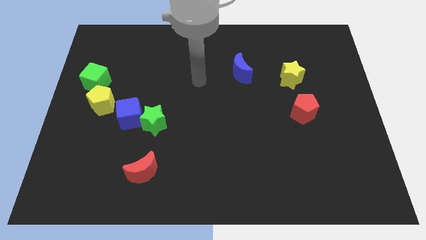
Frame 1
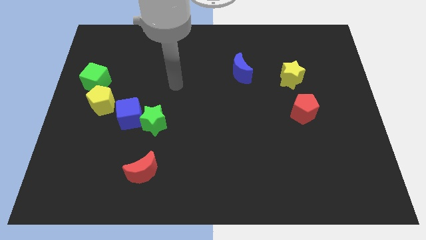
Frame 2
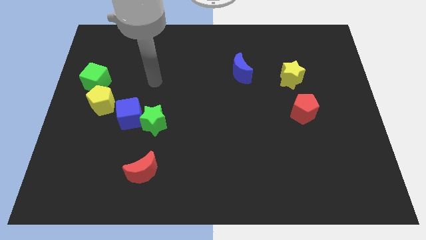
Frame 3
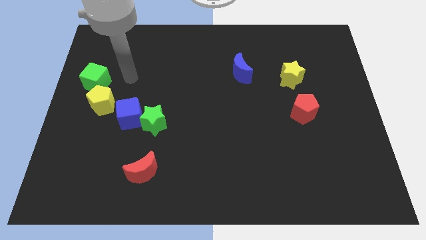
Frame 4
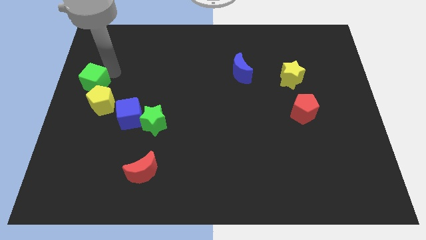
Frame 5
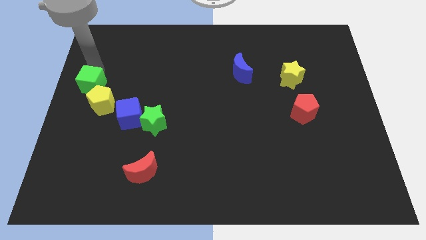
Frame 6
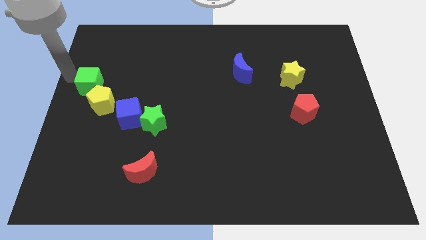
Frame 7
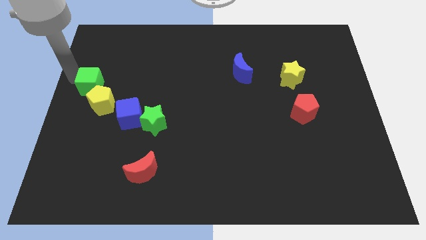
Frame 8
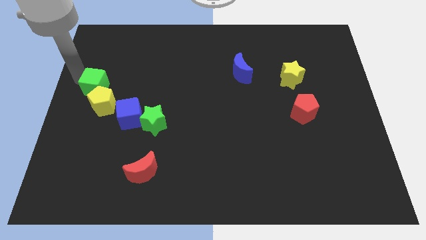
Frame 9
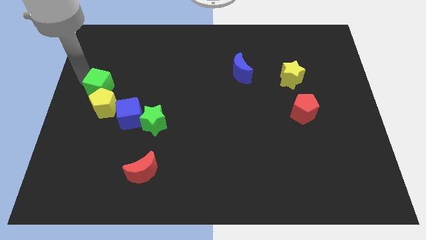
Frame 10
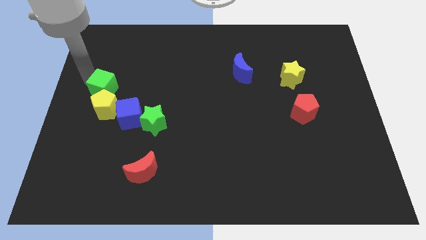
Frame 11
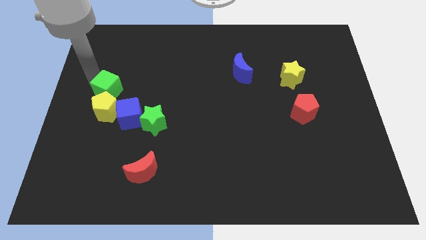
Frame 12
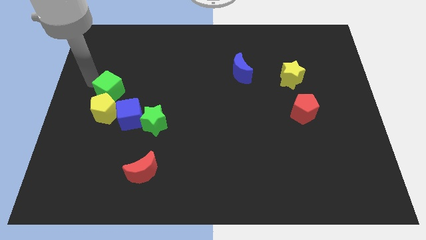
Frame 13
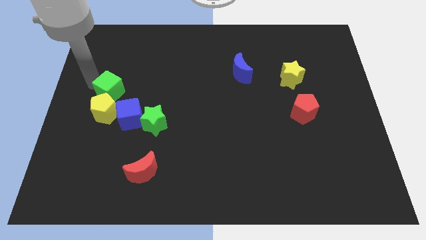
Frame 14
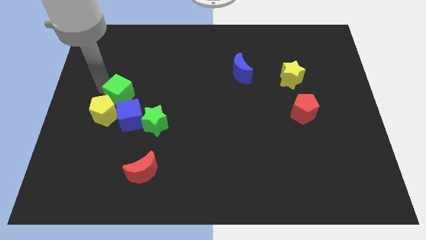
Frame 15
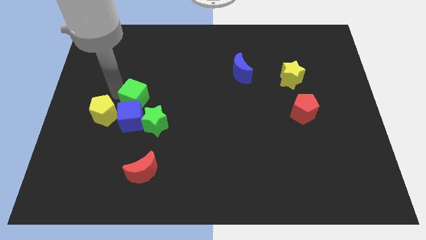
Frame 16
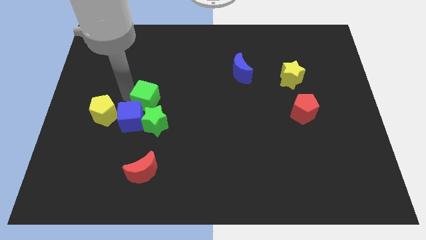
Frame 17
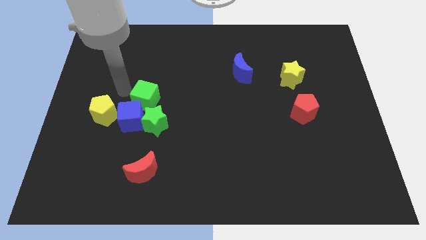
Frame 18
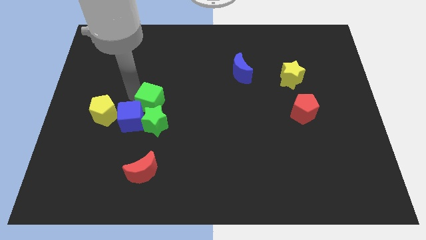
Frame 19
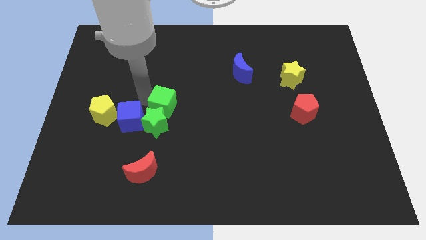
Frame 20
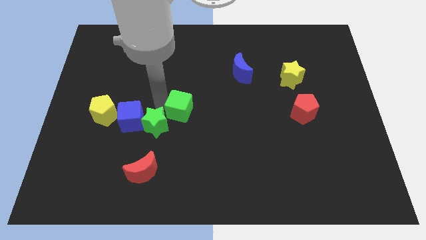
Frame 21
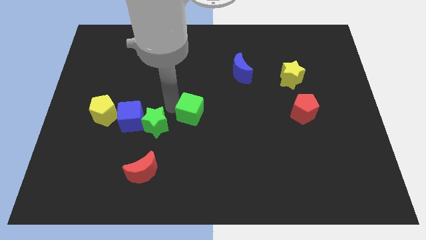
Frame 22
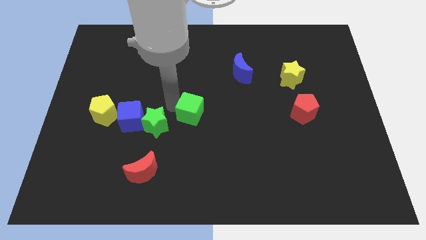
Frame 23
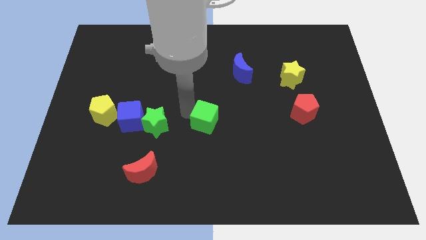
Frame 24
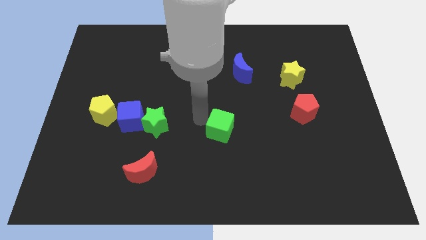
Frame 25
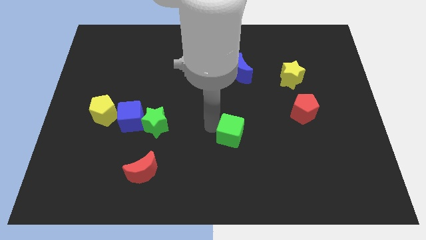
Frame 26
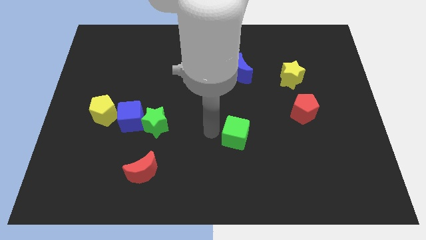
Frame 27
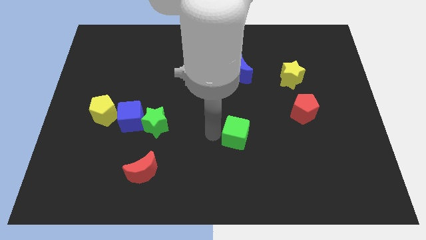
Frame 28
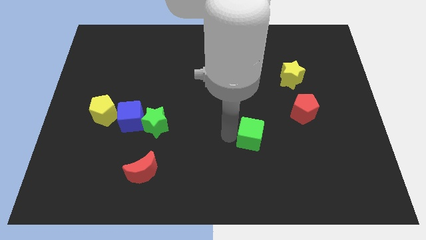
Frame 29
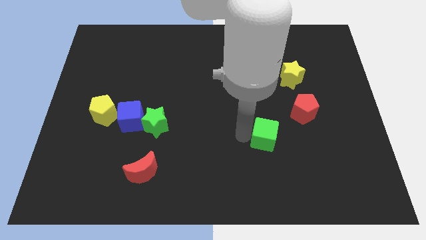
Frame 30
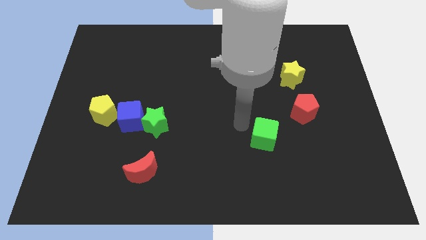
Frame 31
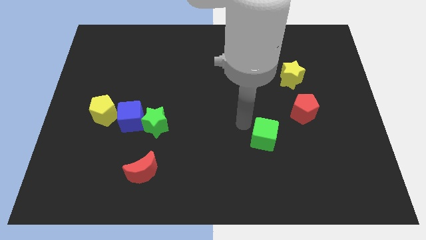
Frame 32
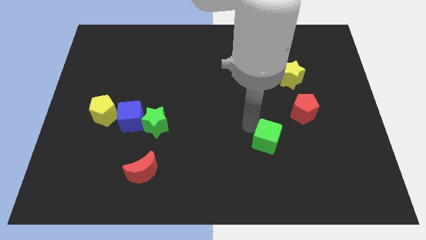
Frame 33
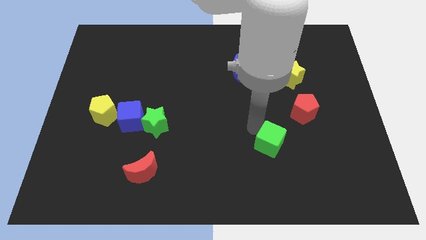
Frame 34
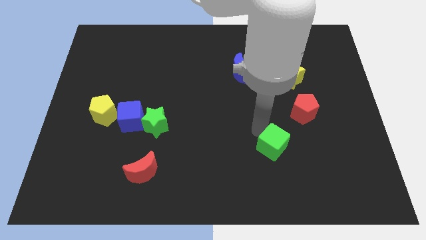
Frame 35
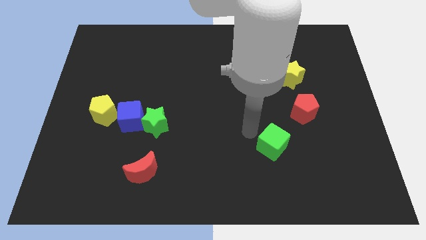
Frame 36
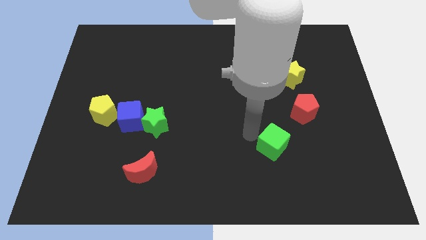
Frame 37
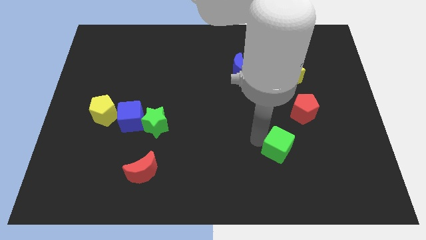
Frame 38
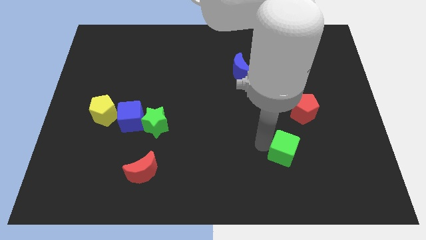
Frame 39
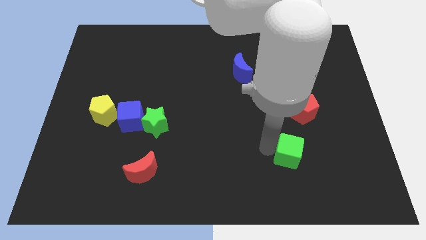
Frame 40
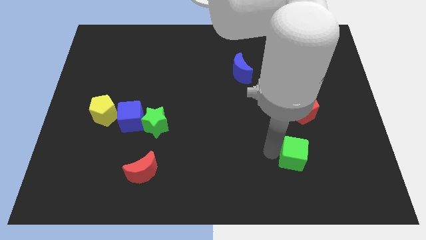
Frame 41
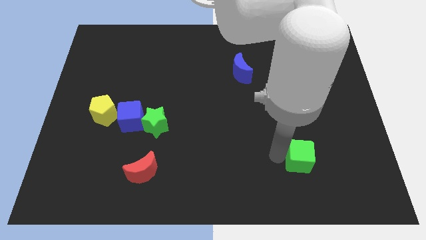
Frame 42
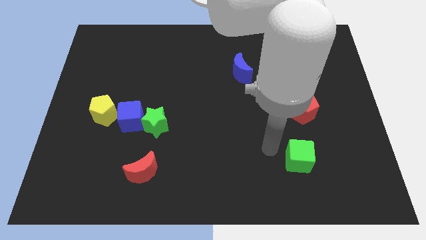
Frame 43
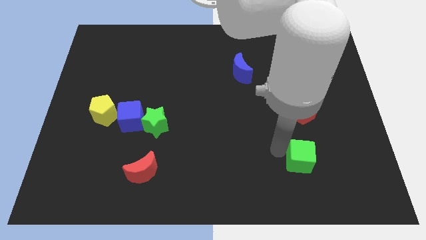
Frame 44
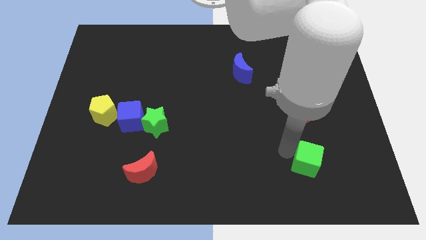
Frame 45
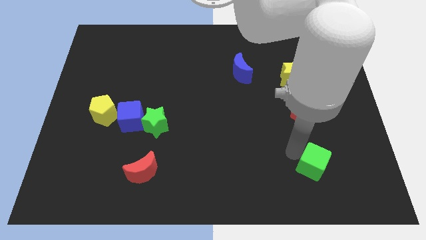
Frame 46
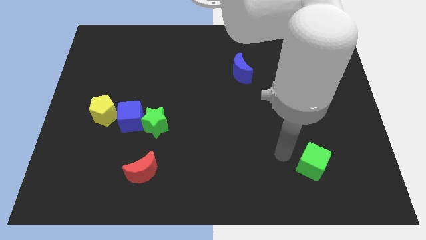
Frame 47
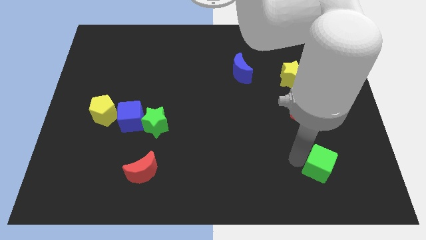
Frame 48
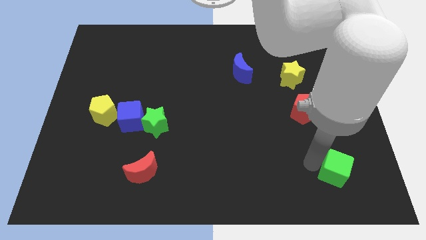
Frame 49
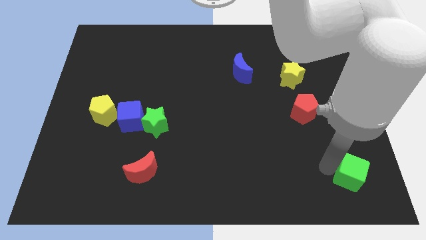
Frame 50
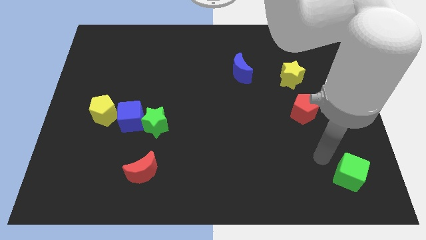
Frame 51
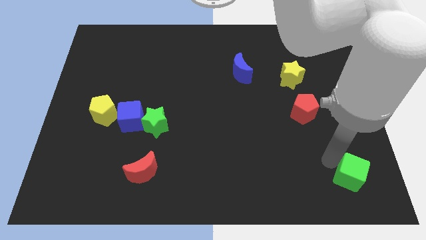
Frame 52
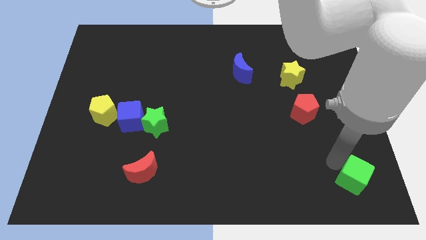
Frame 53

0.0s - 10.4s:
put the green cube to the bottom right

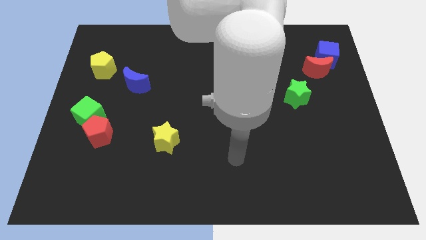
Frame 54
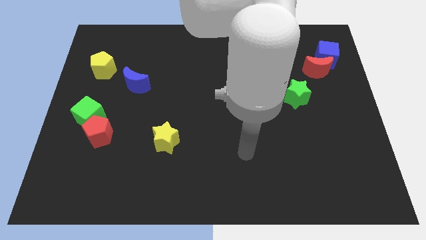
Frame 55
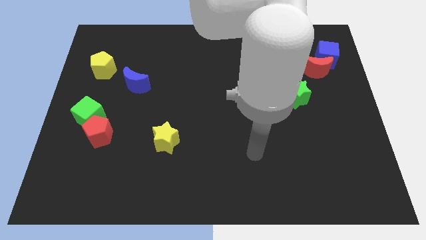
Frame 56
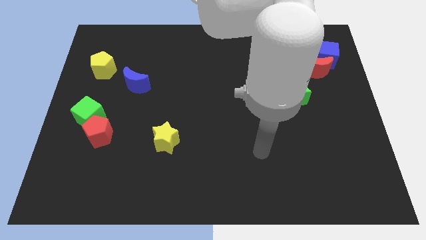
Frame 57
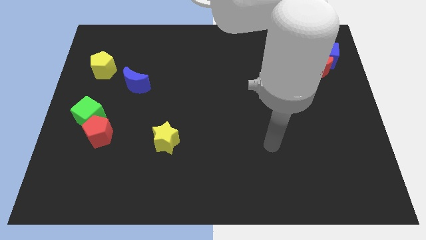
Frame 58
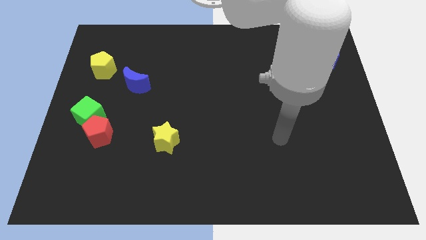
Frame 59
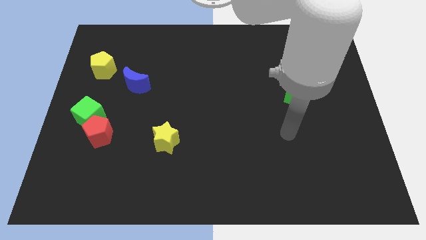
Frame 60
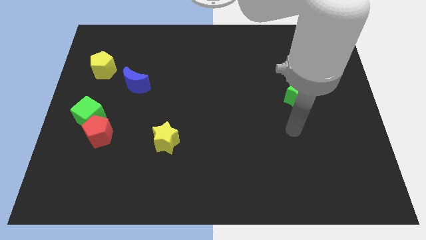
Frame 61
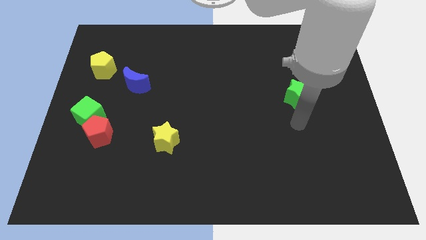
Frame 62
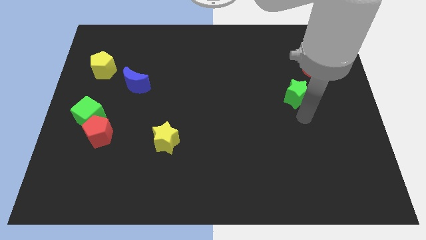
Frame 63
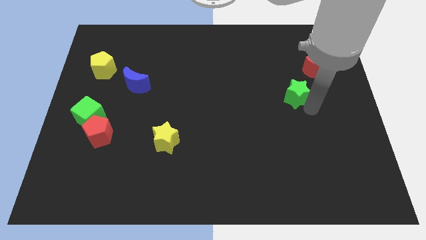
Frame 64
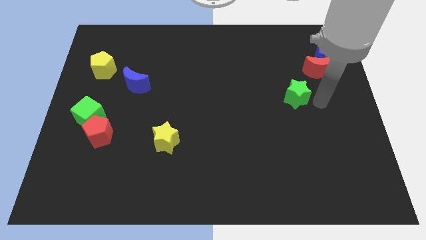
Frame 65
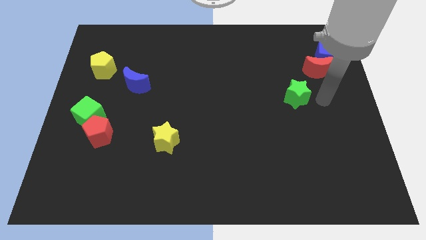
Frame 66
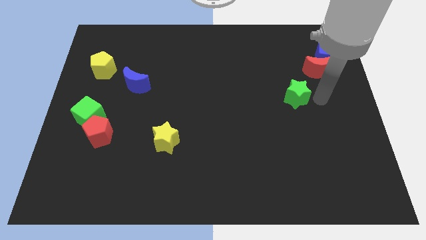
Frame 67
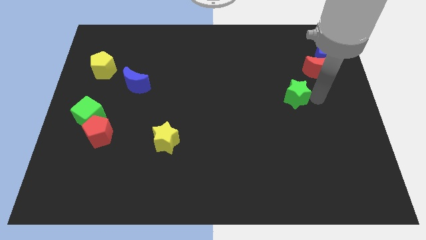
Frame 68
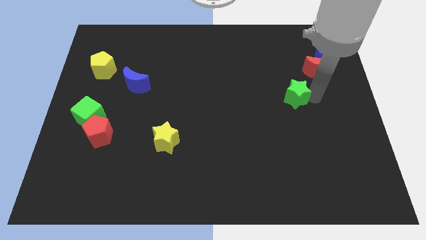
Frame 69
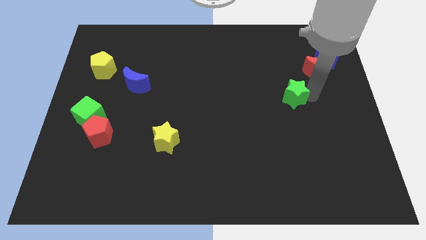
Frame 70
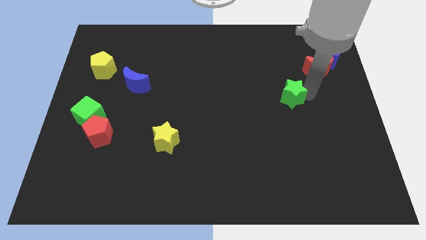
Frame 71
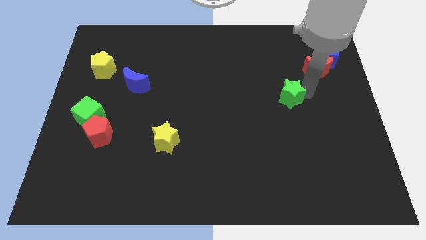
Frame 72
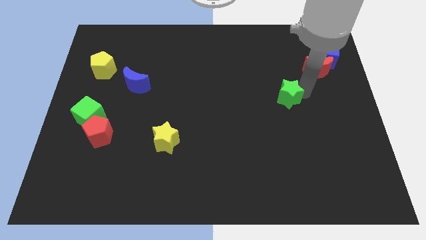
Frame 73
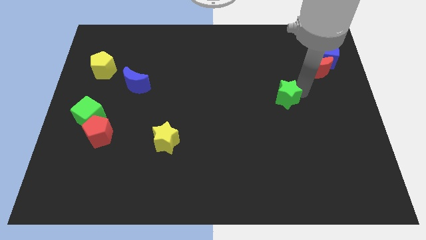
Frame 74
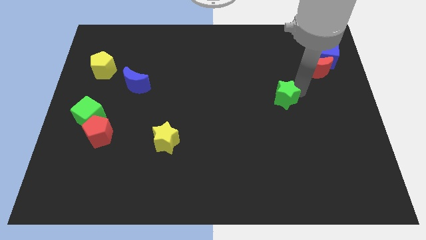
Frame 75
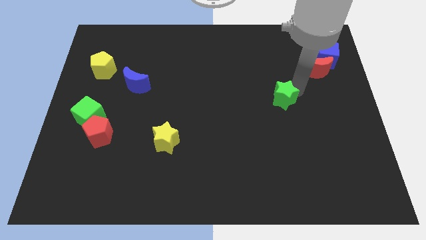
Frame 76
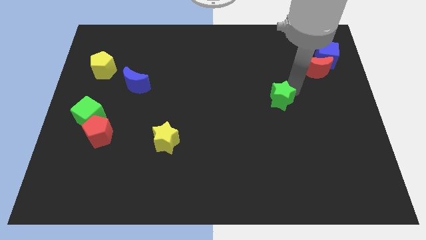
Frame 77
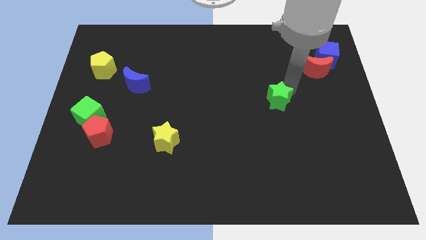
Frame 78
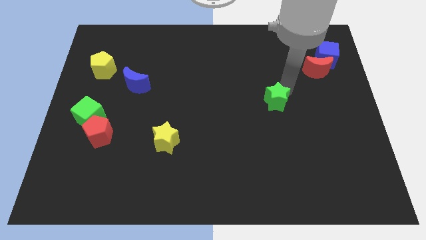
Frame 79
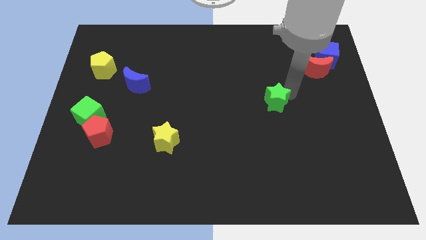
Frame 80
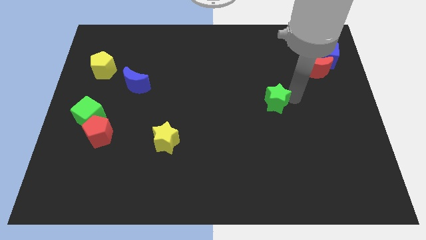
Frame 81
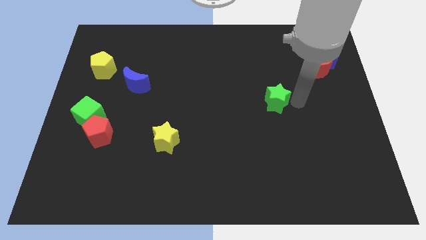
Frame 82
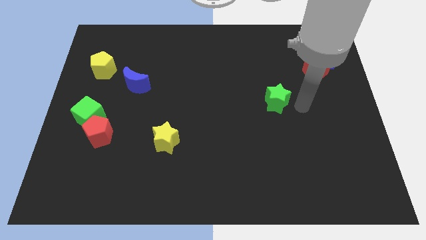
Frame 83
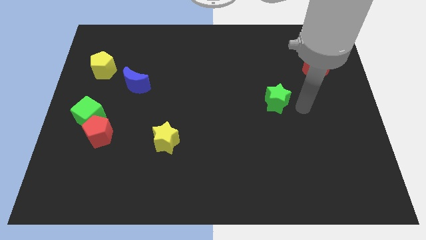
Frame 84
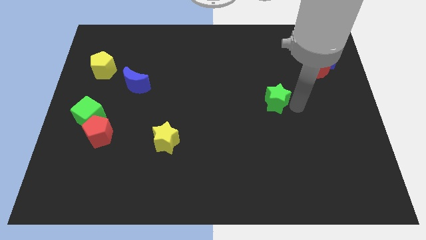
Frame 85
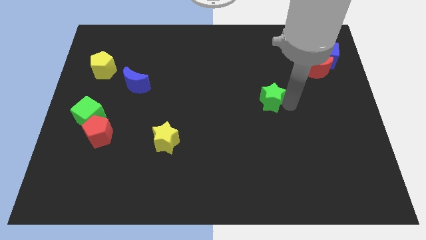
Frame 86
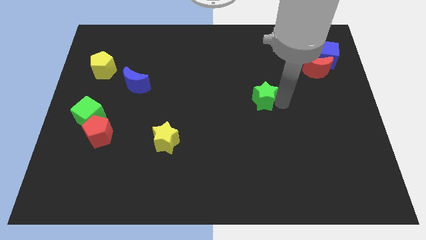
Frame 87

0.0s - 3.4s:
push the green star to the center of the board
